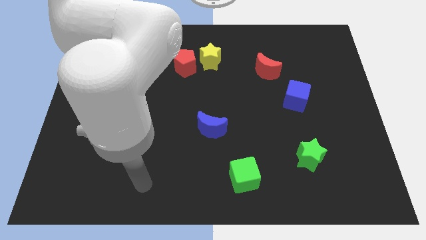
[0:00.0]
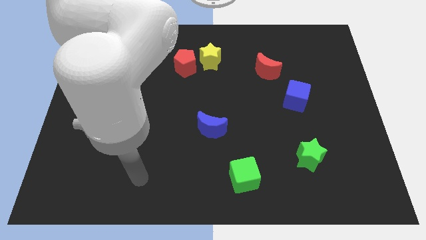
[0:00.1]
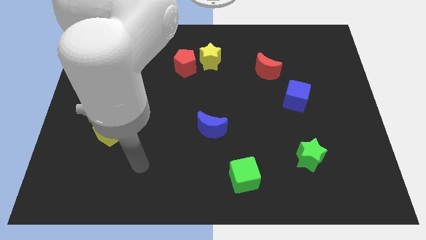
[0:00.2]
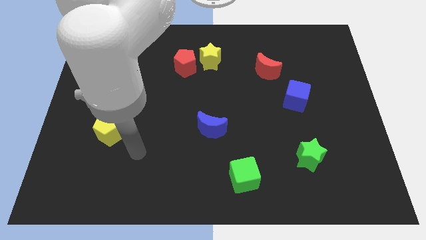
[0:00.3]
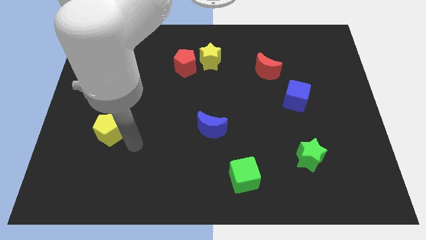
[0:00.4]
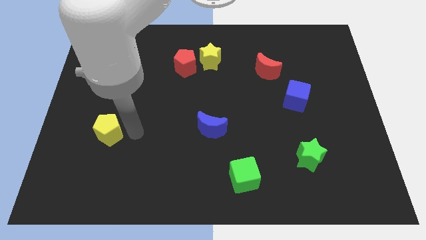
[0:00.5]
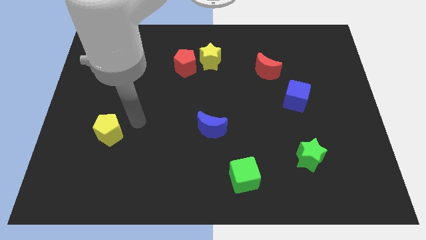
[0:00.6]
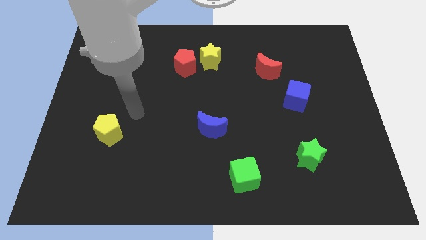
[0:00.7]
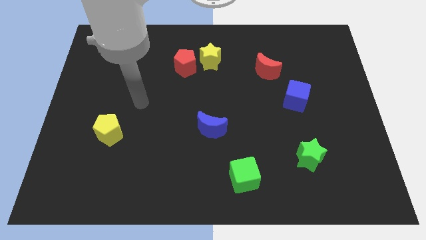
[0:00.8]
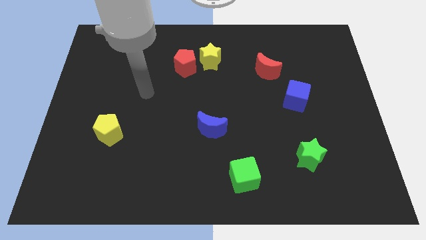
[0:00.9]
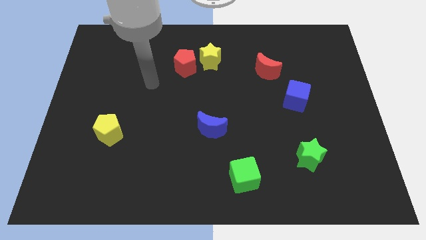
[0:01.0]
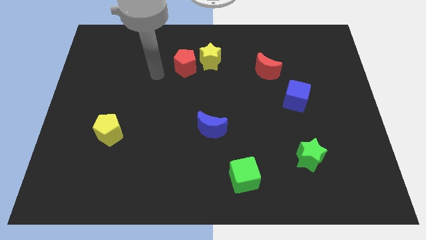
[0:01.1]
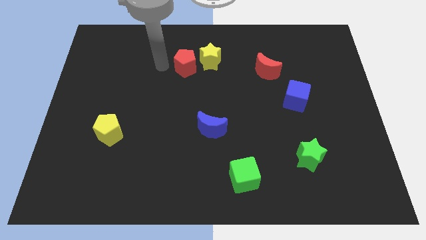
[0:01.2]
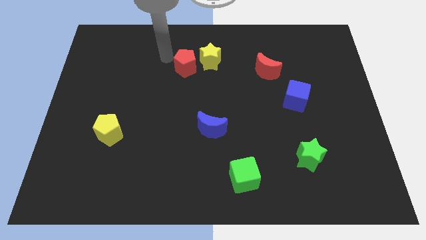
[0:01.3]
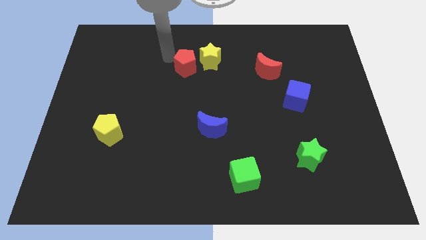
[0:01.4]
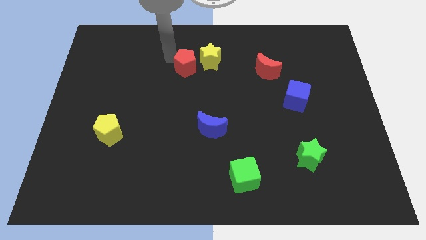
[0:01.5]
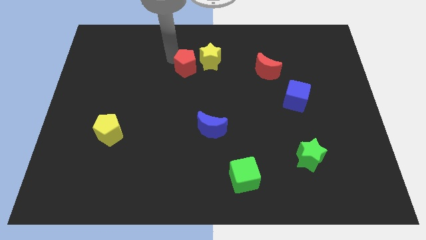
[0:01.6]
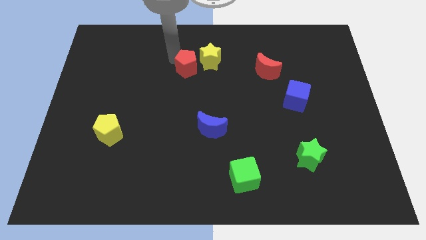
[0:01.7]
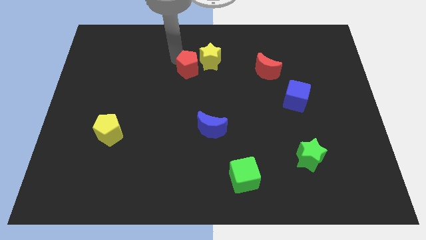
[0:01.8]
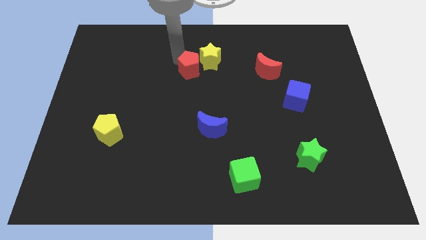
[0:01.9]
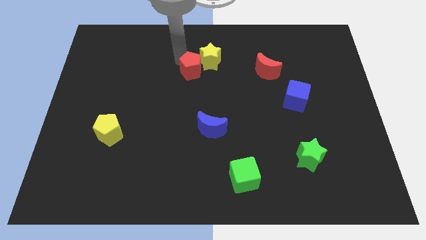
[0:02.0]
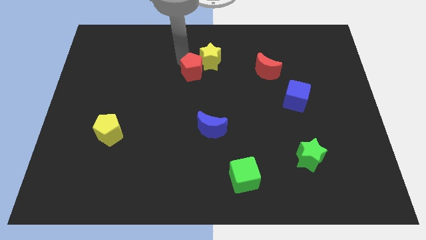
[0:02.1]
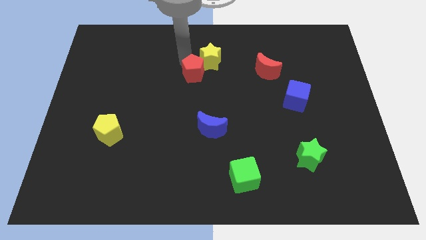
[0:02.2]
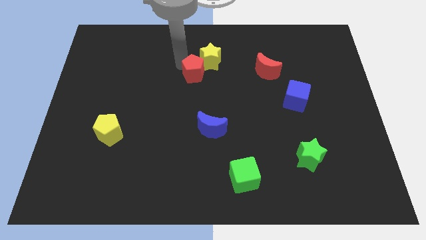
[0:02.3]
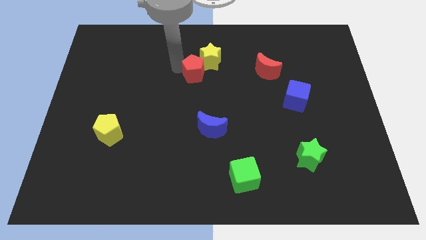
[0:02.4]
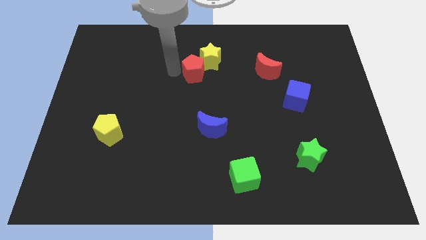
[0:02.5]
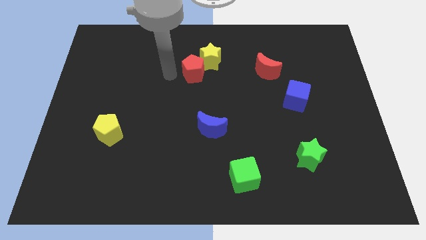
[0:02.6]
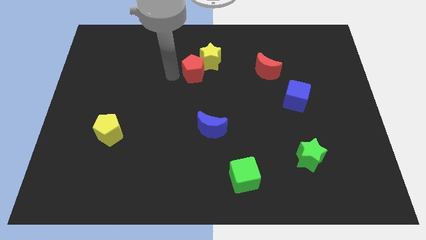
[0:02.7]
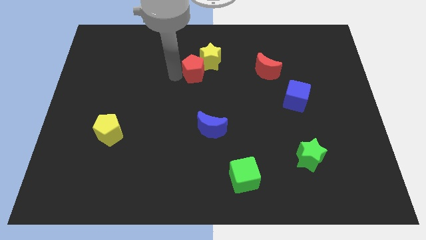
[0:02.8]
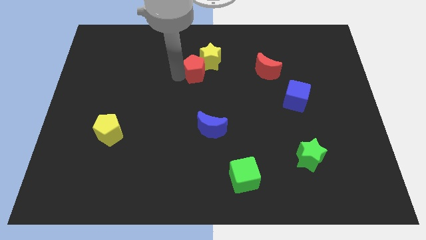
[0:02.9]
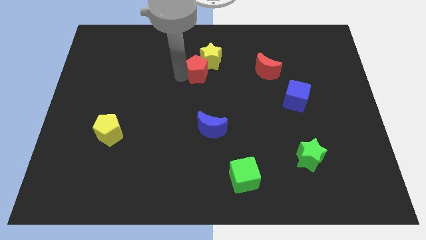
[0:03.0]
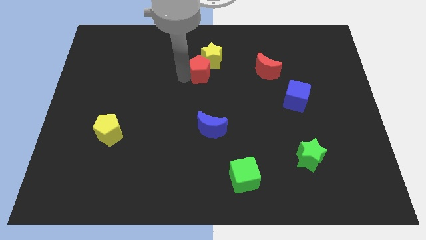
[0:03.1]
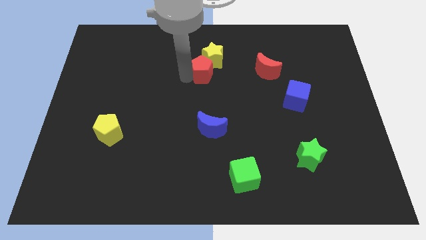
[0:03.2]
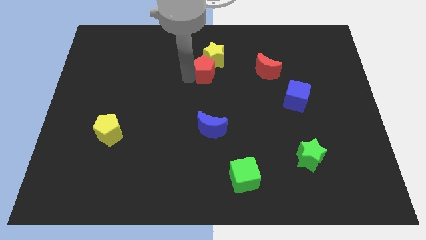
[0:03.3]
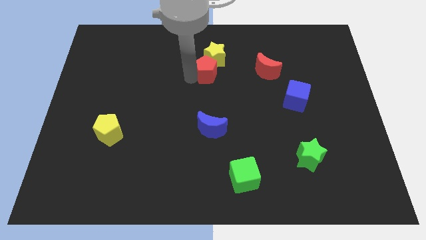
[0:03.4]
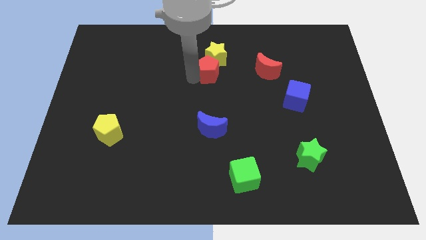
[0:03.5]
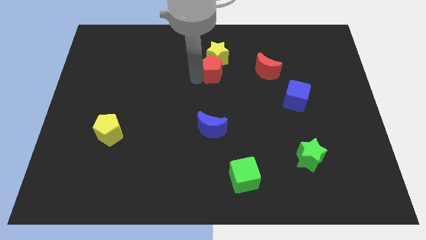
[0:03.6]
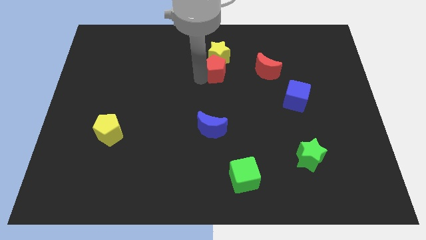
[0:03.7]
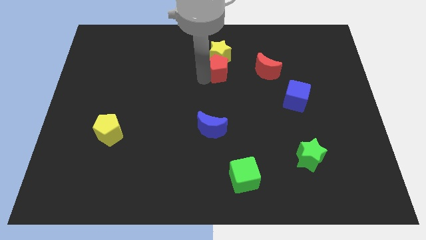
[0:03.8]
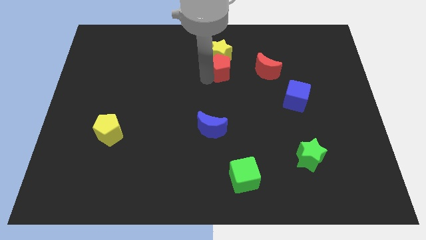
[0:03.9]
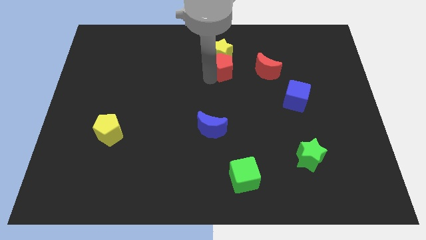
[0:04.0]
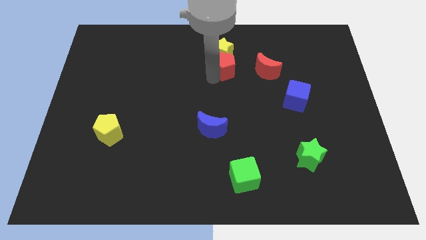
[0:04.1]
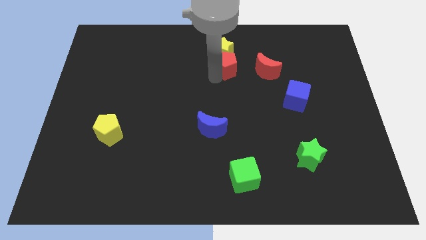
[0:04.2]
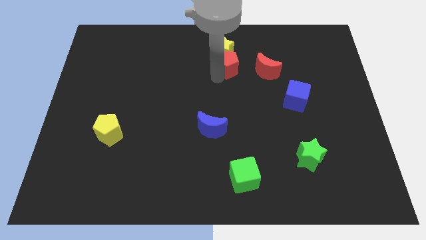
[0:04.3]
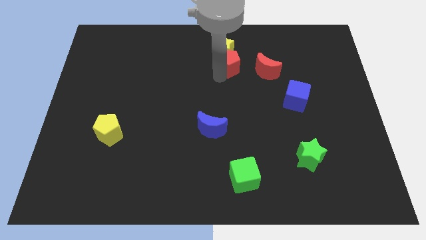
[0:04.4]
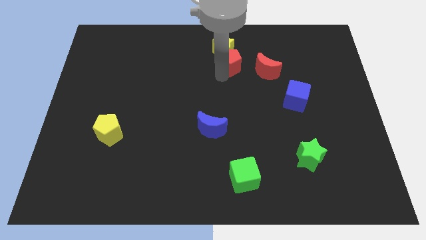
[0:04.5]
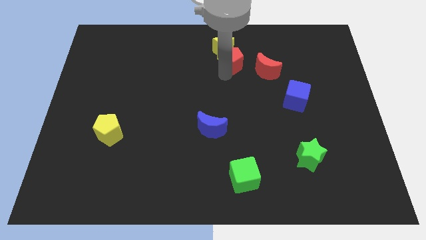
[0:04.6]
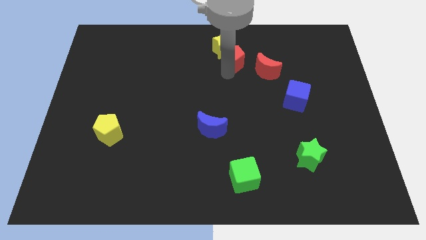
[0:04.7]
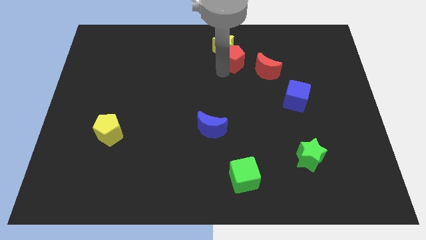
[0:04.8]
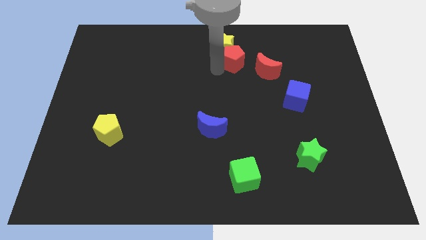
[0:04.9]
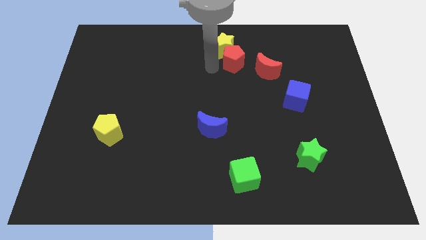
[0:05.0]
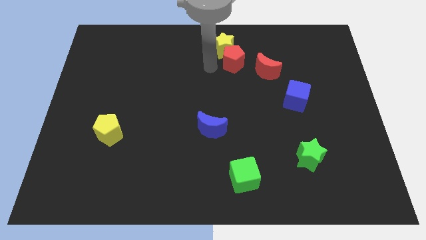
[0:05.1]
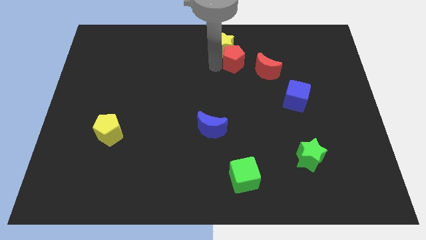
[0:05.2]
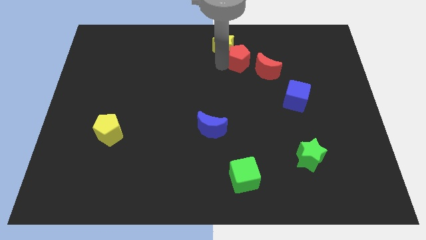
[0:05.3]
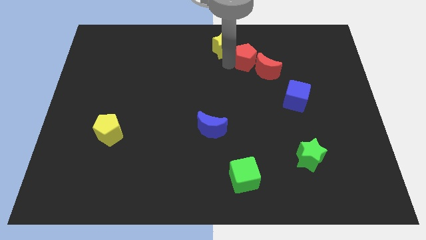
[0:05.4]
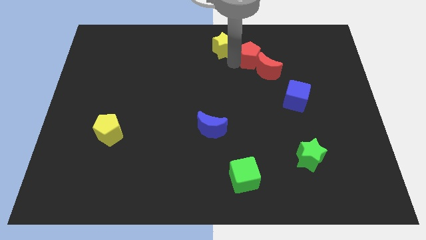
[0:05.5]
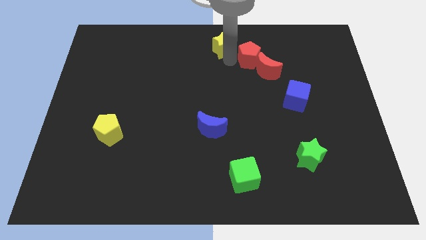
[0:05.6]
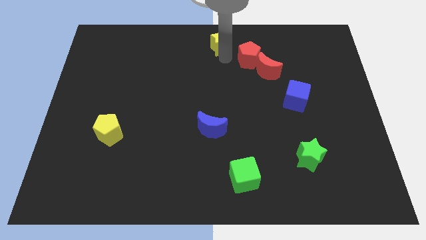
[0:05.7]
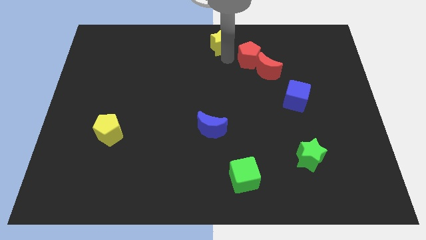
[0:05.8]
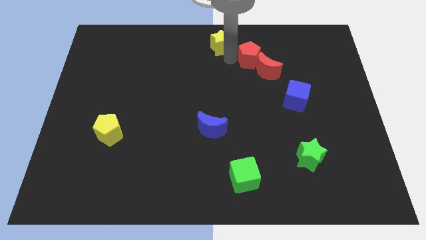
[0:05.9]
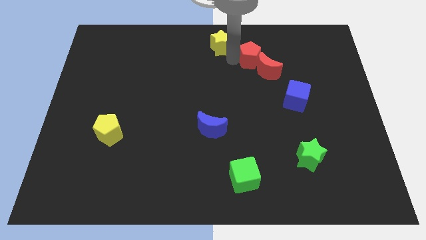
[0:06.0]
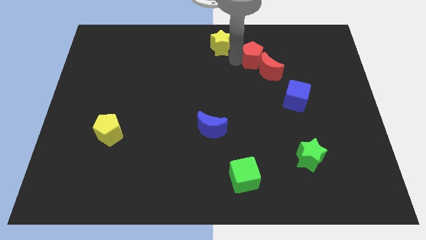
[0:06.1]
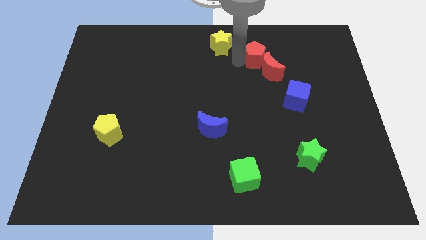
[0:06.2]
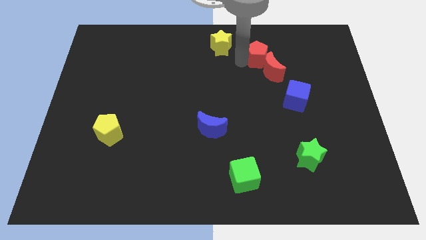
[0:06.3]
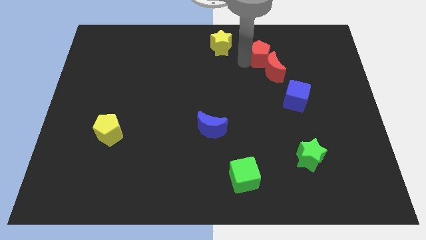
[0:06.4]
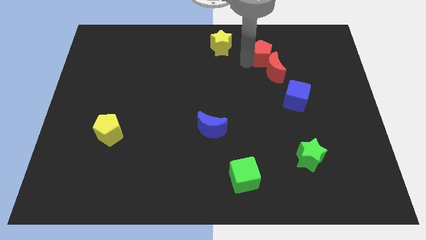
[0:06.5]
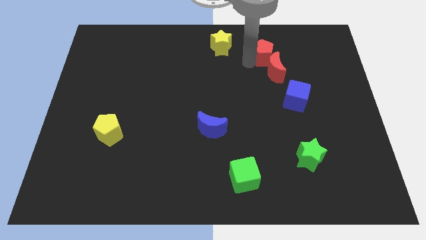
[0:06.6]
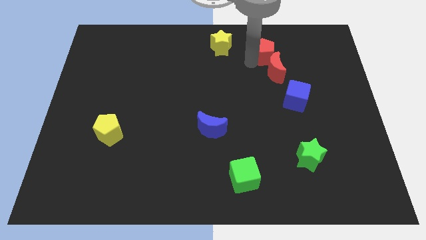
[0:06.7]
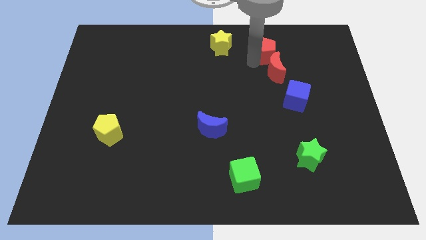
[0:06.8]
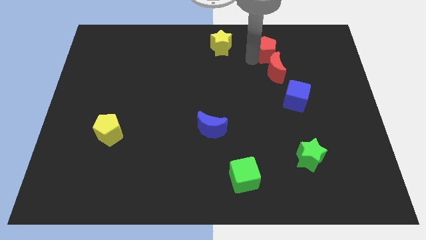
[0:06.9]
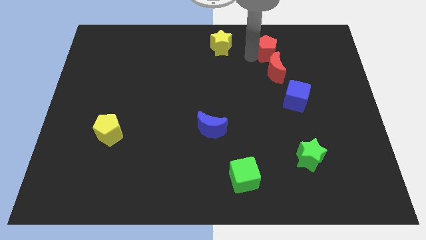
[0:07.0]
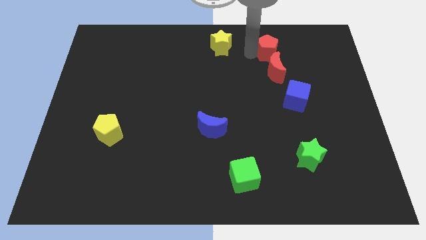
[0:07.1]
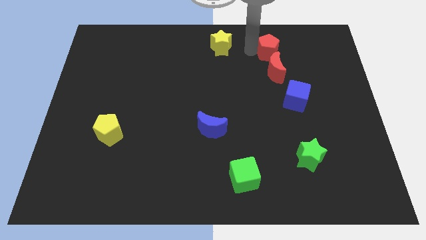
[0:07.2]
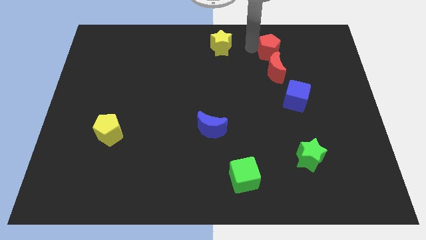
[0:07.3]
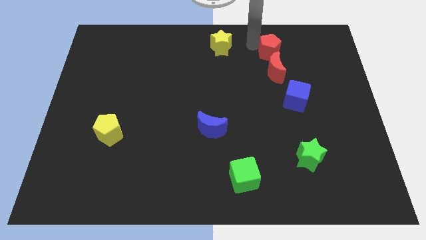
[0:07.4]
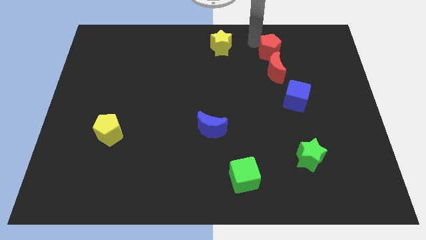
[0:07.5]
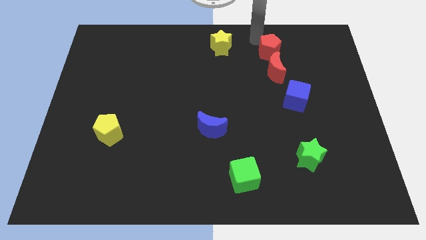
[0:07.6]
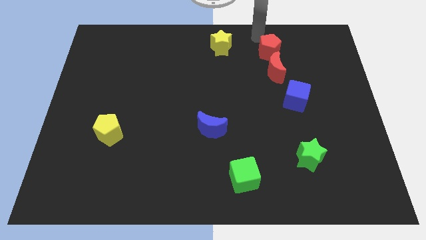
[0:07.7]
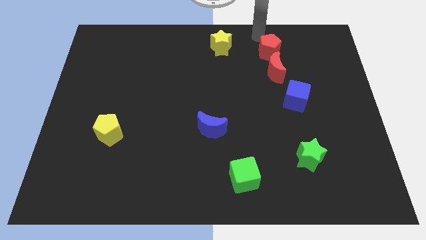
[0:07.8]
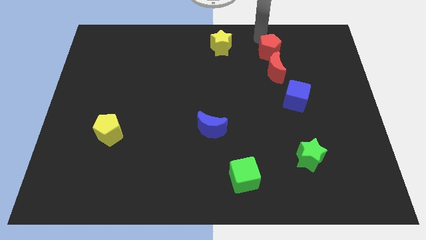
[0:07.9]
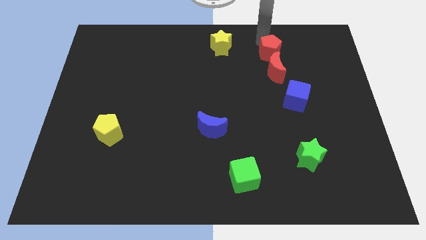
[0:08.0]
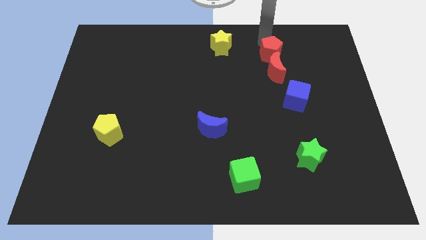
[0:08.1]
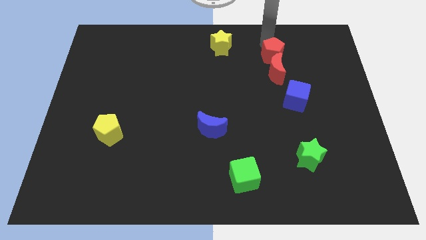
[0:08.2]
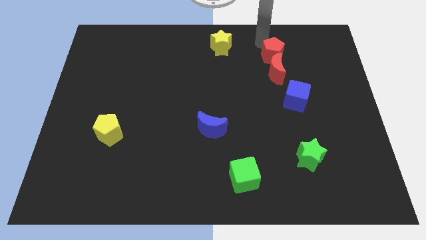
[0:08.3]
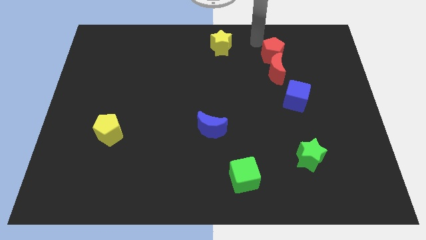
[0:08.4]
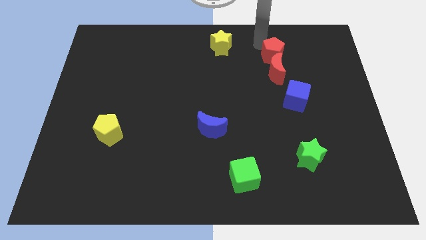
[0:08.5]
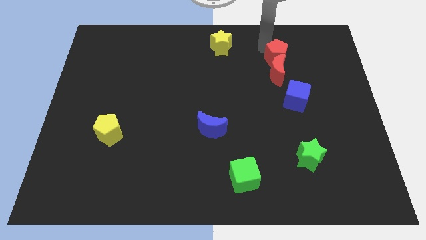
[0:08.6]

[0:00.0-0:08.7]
slide the red pentagon to the top of the blue cube
